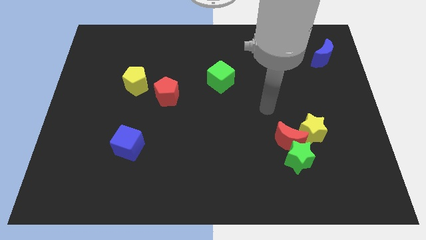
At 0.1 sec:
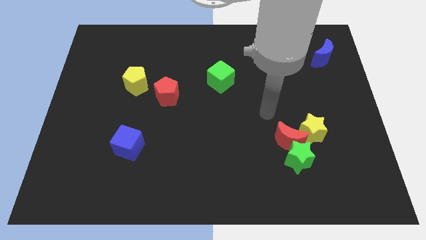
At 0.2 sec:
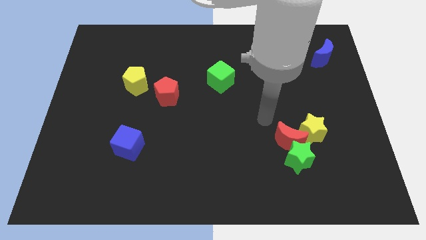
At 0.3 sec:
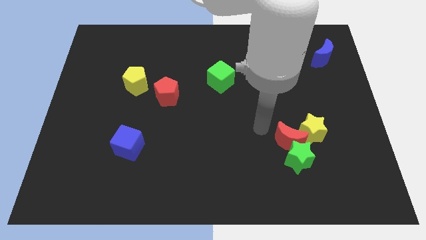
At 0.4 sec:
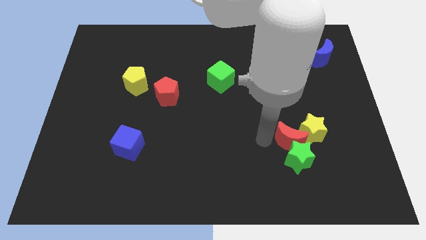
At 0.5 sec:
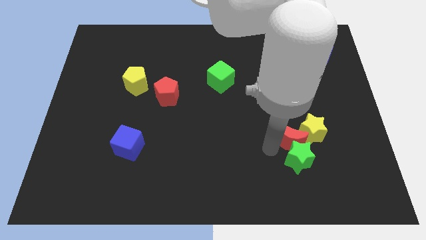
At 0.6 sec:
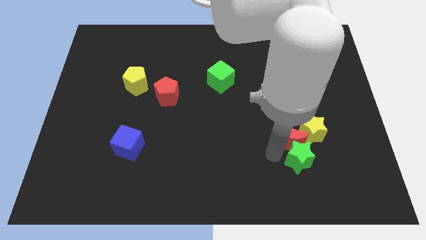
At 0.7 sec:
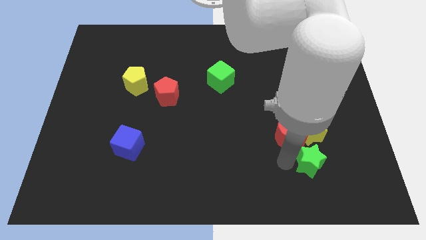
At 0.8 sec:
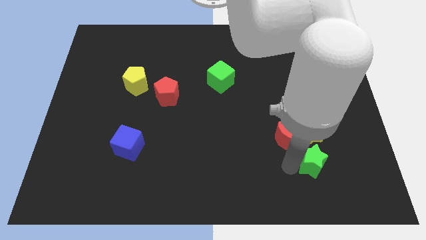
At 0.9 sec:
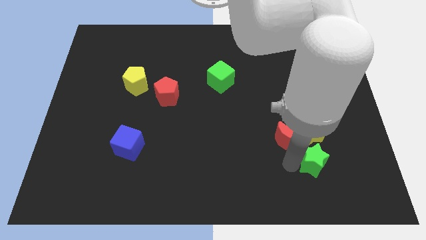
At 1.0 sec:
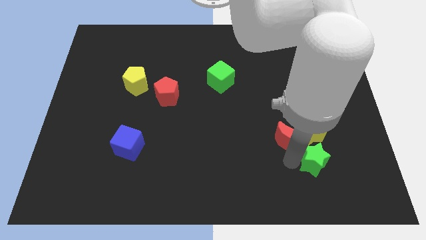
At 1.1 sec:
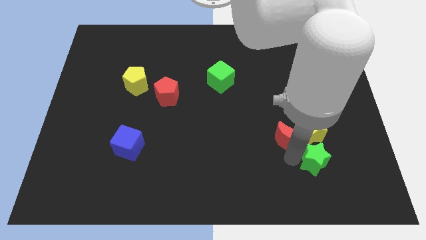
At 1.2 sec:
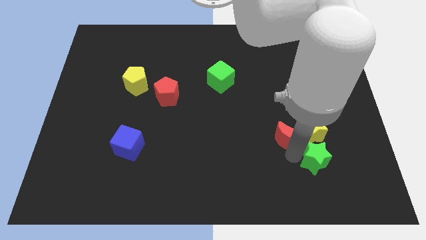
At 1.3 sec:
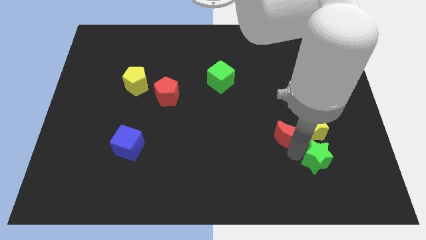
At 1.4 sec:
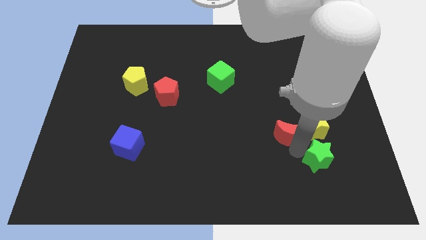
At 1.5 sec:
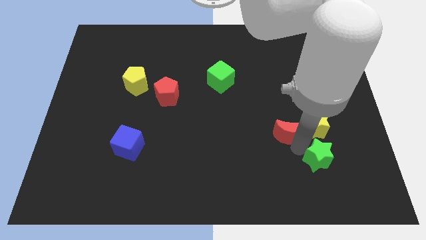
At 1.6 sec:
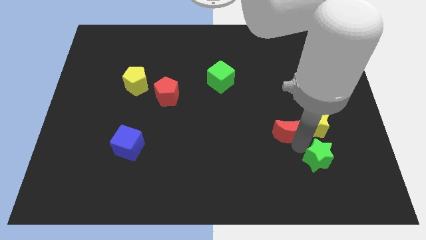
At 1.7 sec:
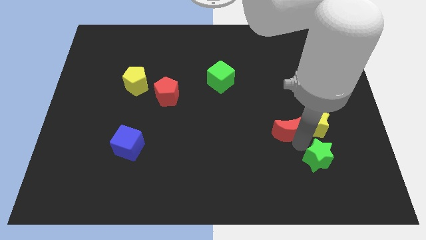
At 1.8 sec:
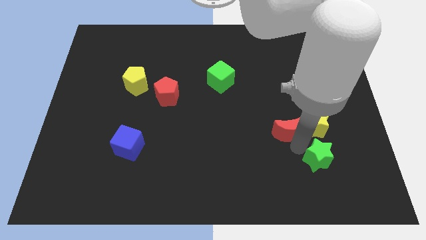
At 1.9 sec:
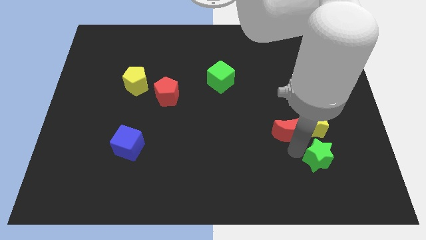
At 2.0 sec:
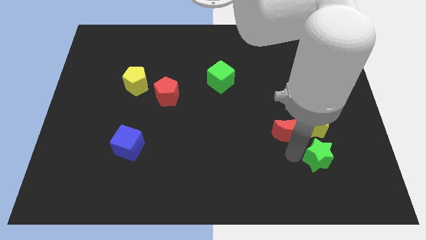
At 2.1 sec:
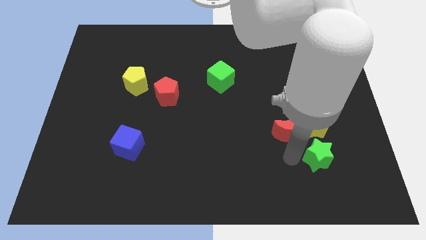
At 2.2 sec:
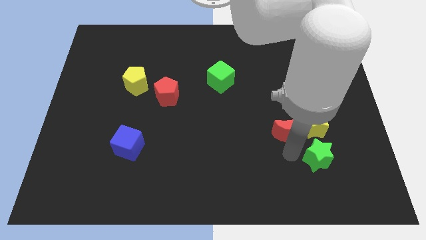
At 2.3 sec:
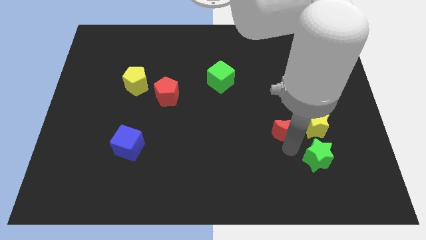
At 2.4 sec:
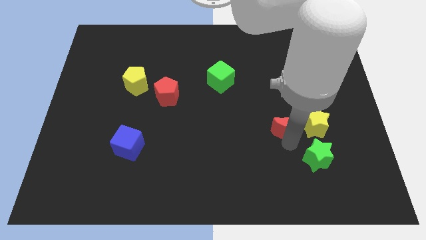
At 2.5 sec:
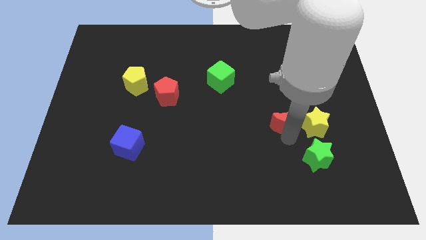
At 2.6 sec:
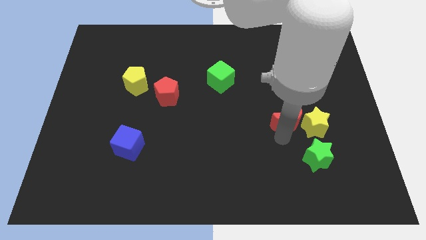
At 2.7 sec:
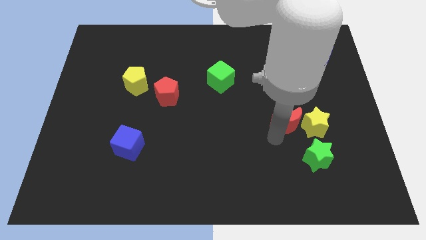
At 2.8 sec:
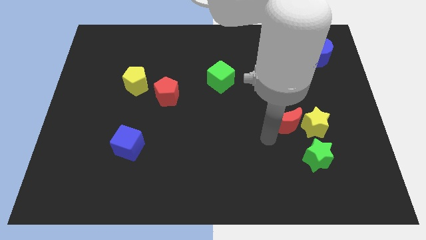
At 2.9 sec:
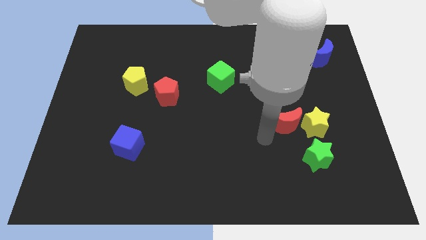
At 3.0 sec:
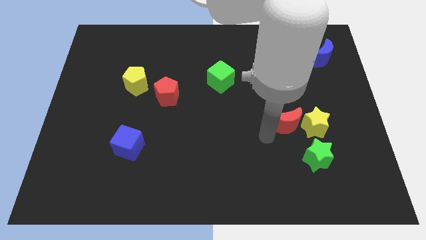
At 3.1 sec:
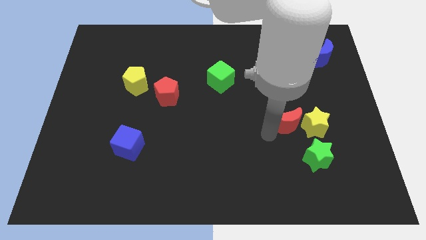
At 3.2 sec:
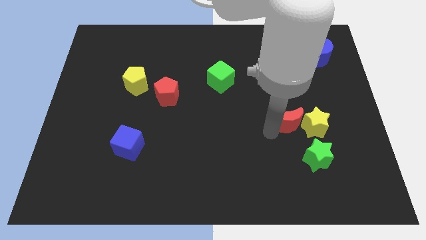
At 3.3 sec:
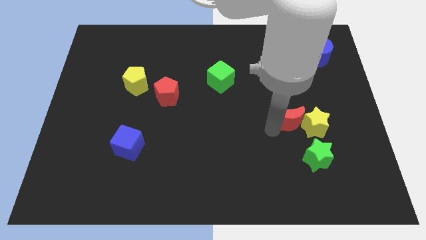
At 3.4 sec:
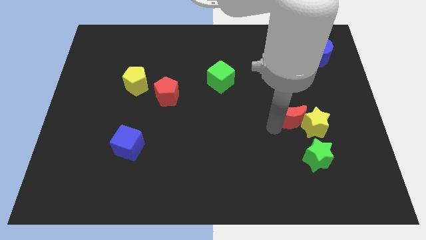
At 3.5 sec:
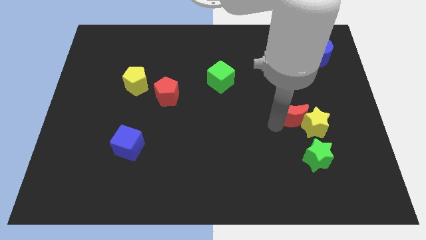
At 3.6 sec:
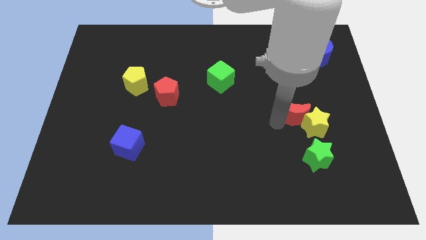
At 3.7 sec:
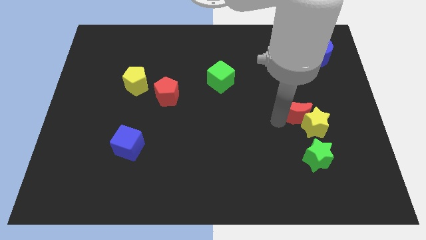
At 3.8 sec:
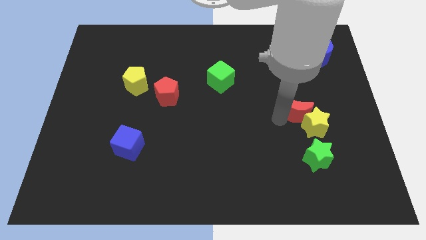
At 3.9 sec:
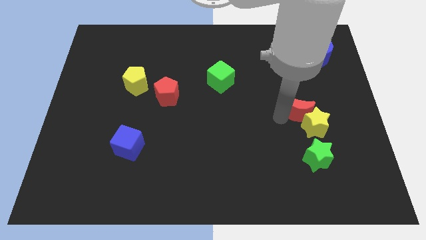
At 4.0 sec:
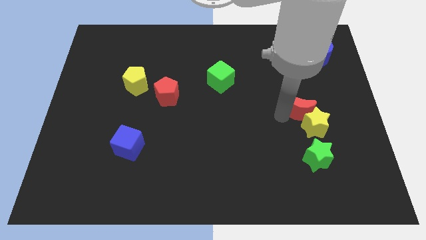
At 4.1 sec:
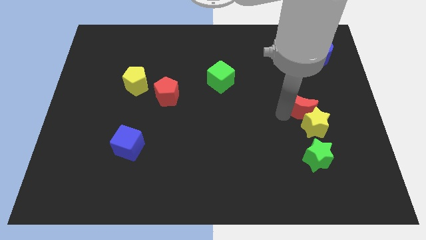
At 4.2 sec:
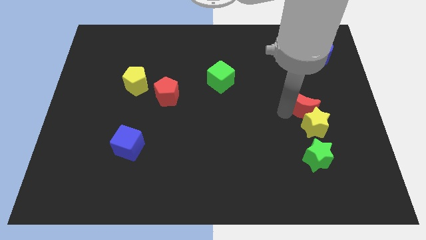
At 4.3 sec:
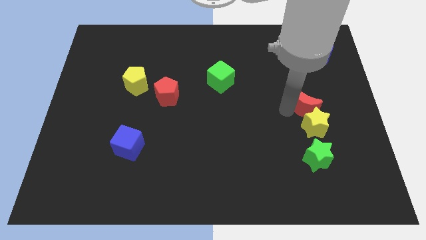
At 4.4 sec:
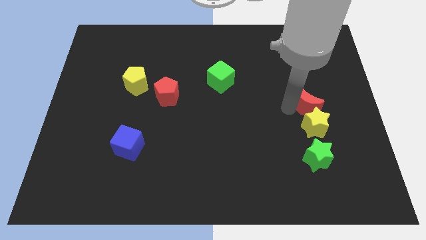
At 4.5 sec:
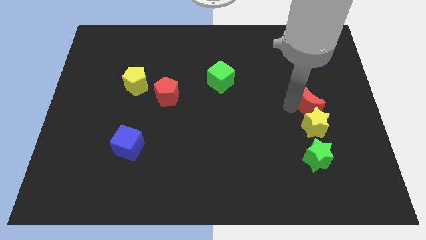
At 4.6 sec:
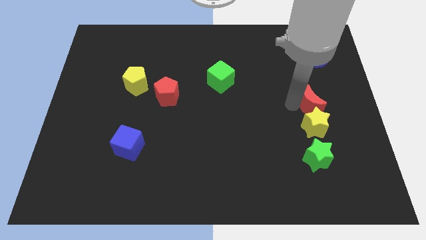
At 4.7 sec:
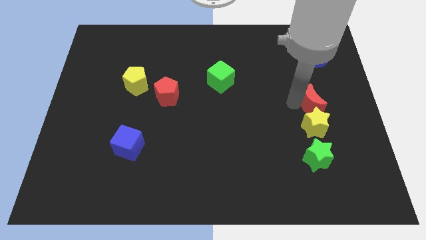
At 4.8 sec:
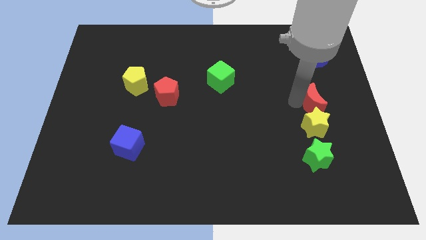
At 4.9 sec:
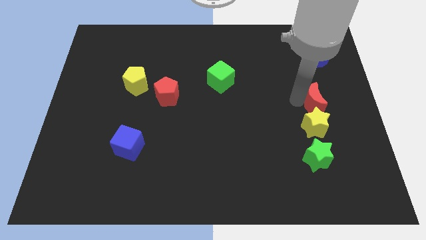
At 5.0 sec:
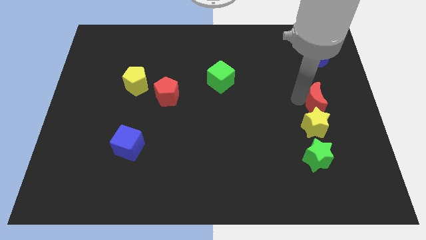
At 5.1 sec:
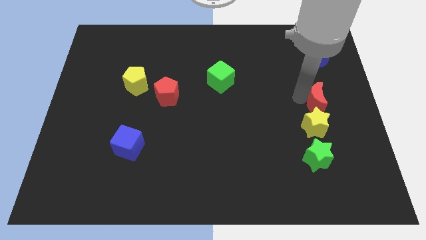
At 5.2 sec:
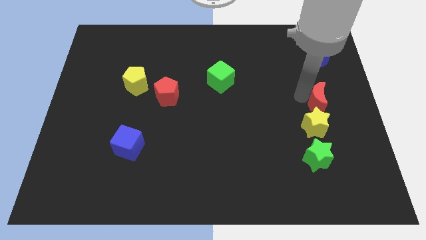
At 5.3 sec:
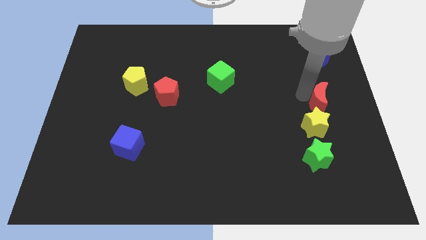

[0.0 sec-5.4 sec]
slide the red moon to the right side

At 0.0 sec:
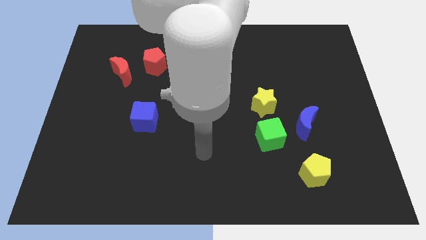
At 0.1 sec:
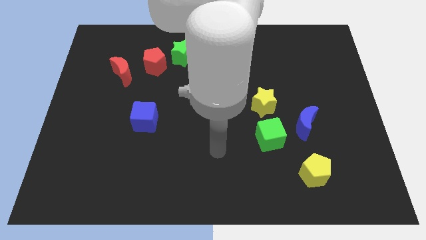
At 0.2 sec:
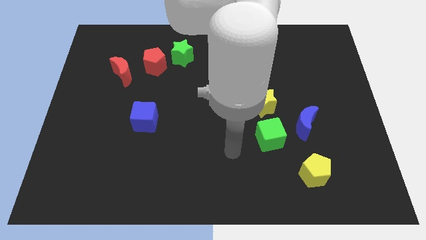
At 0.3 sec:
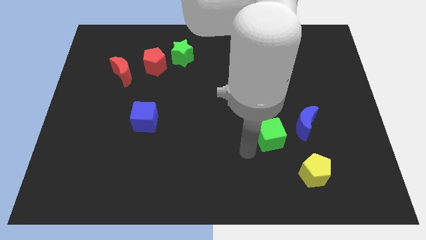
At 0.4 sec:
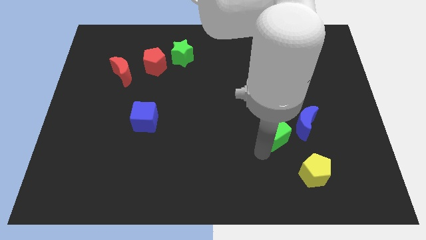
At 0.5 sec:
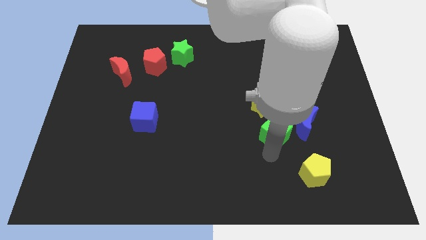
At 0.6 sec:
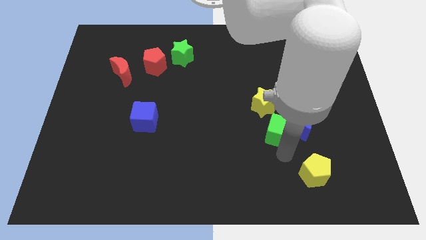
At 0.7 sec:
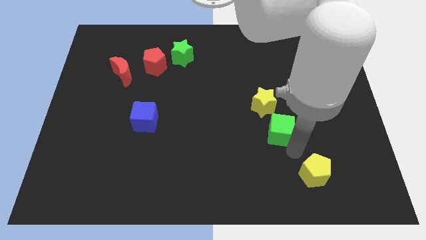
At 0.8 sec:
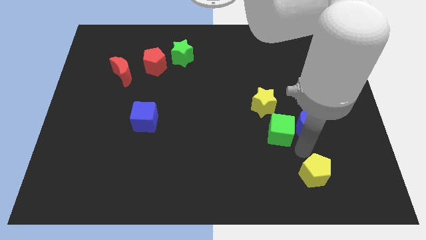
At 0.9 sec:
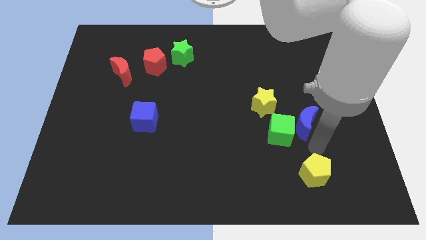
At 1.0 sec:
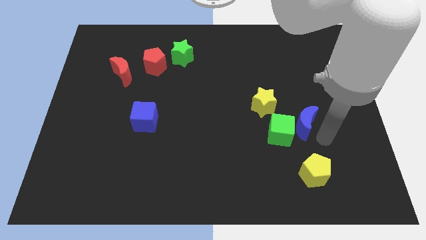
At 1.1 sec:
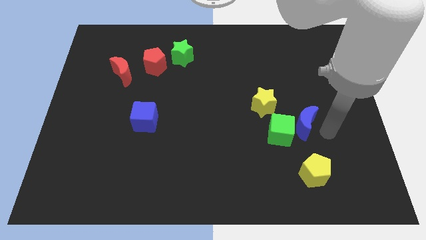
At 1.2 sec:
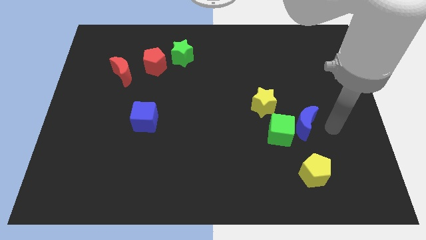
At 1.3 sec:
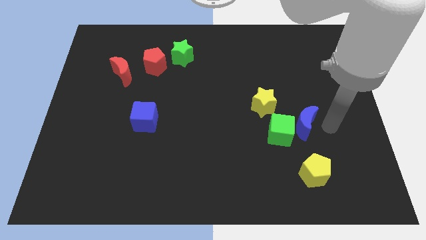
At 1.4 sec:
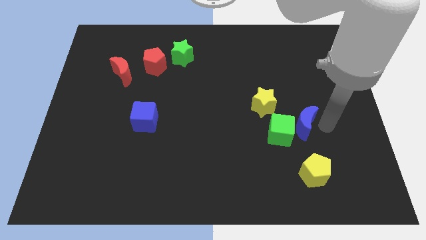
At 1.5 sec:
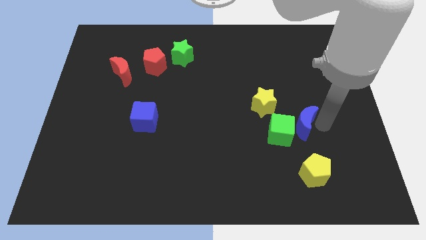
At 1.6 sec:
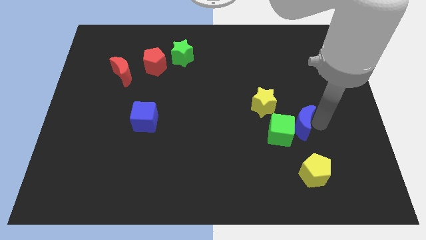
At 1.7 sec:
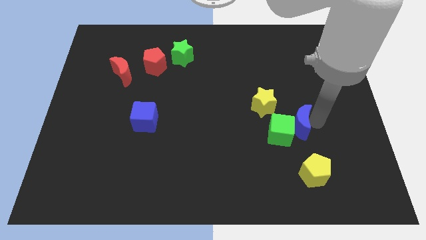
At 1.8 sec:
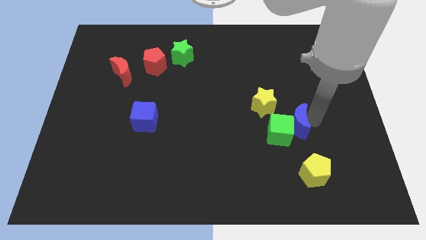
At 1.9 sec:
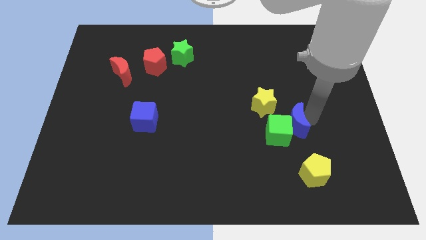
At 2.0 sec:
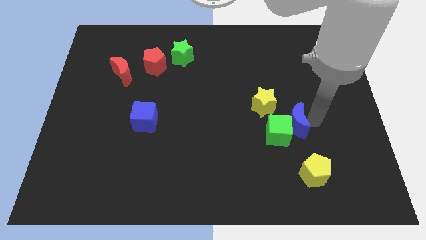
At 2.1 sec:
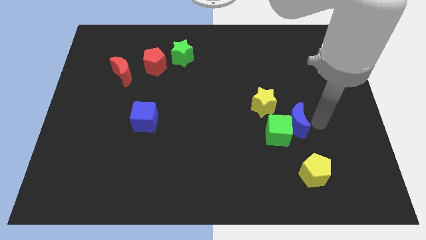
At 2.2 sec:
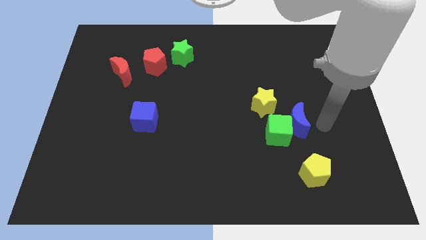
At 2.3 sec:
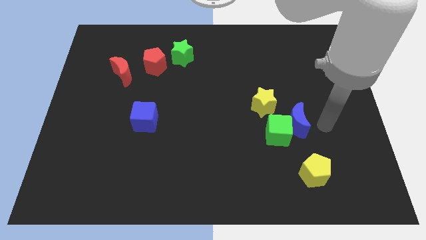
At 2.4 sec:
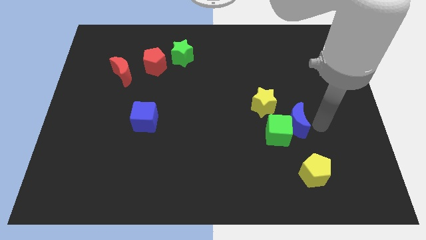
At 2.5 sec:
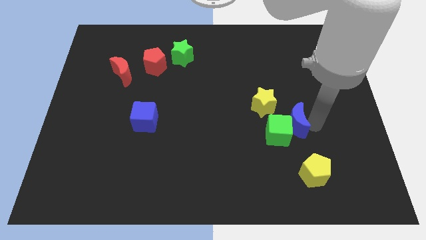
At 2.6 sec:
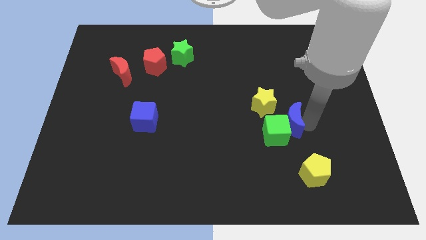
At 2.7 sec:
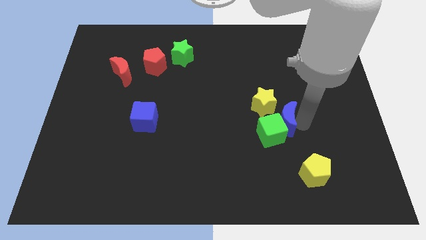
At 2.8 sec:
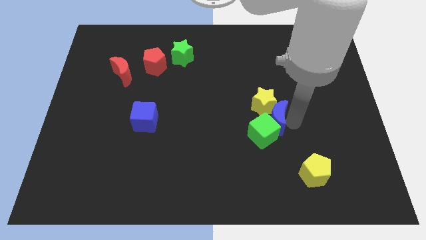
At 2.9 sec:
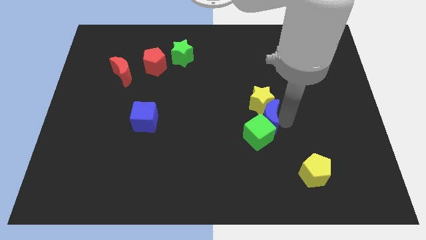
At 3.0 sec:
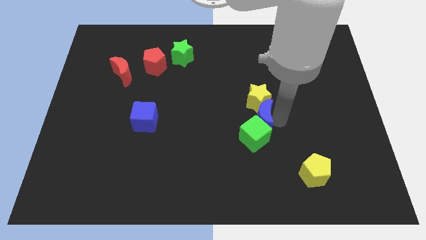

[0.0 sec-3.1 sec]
slide the blue moon to the center
